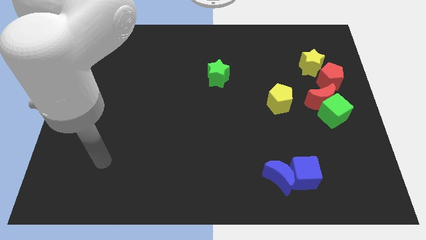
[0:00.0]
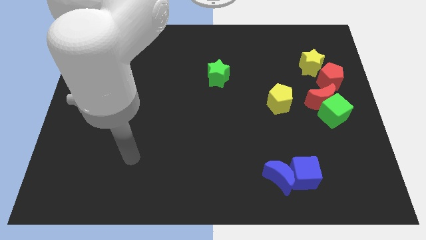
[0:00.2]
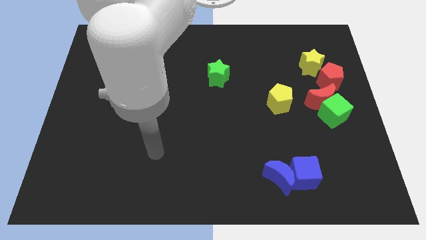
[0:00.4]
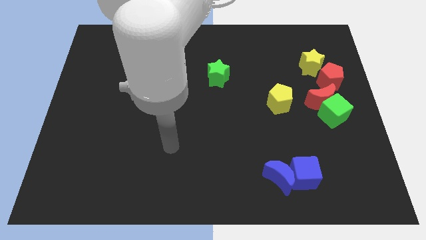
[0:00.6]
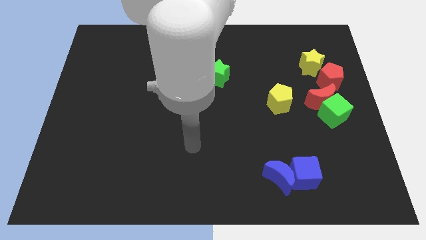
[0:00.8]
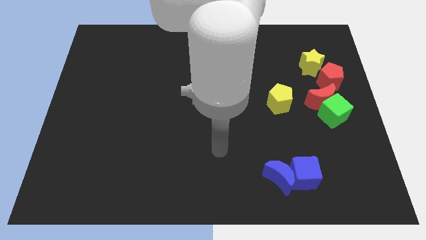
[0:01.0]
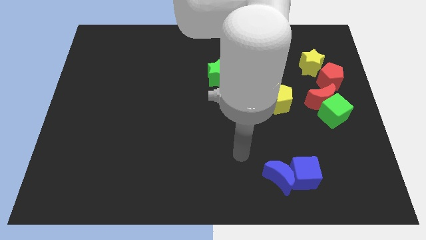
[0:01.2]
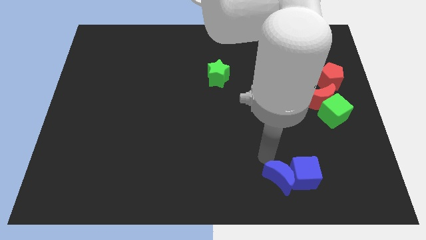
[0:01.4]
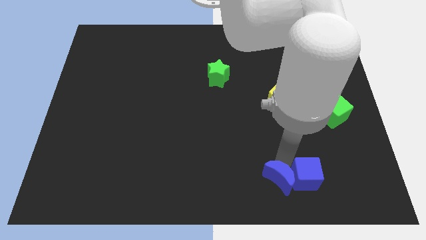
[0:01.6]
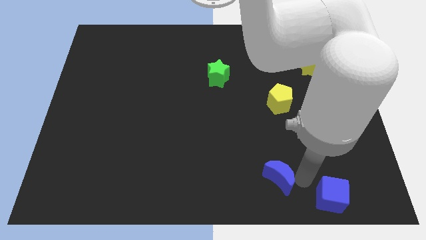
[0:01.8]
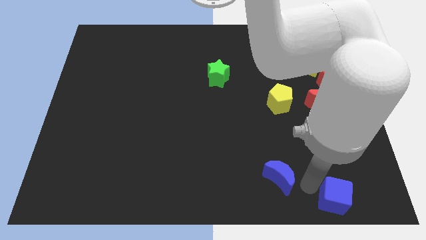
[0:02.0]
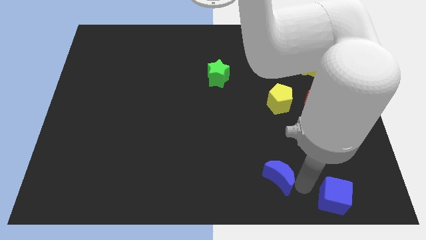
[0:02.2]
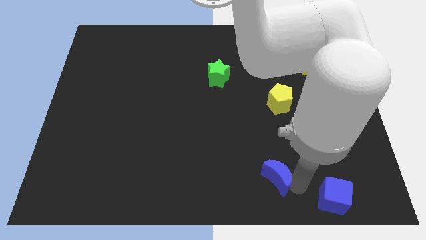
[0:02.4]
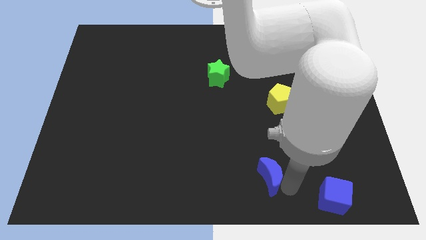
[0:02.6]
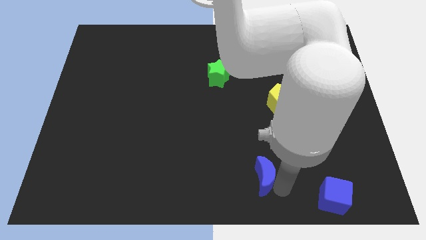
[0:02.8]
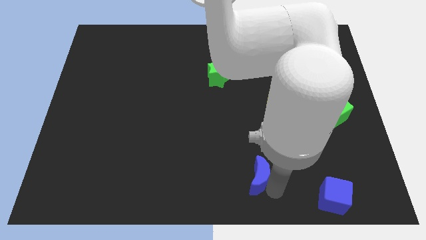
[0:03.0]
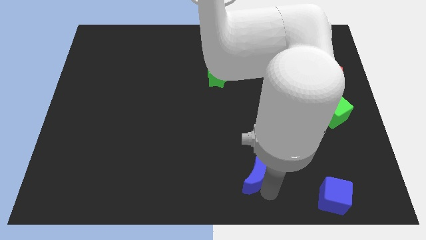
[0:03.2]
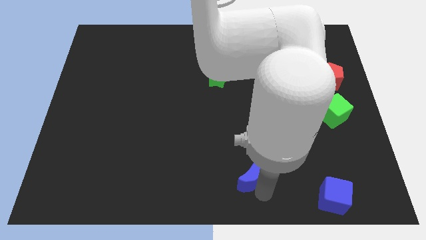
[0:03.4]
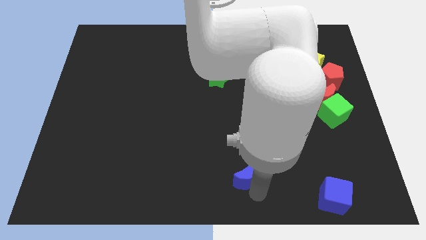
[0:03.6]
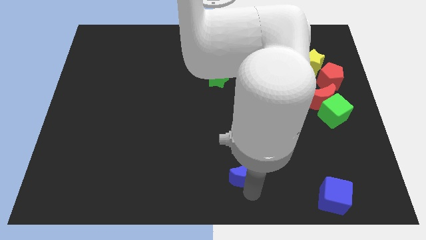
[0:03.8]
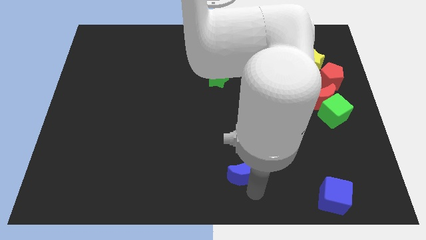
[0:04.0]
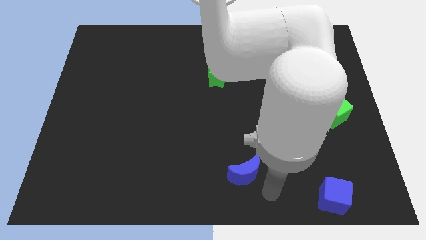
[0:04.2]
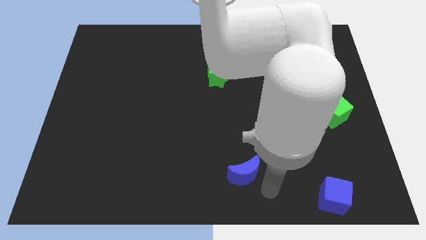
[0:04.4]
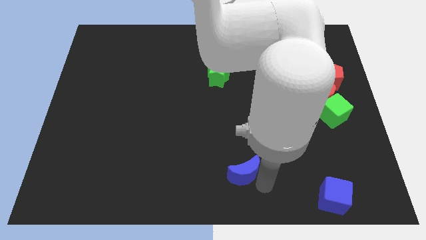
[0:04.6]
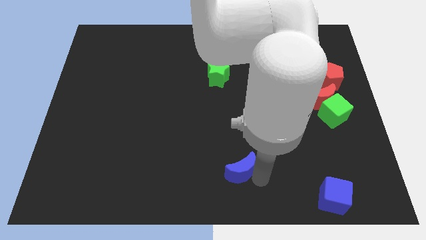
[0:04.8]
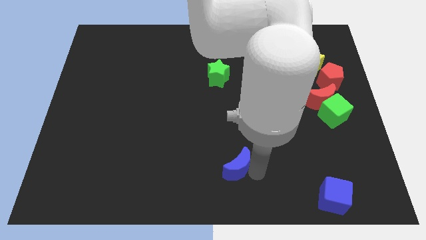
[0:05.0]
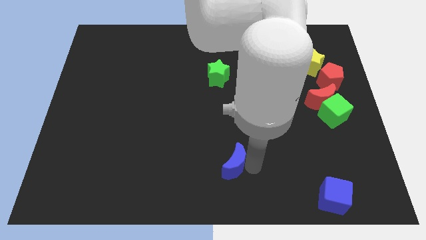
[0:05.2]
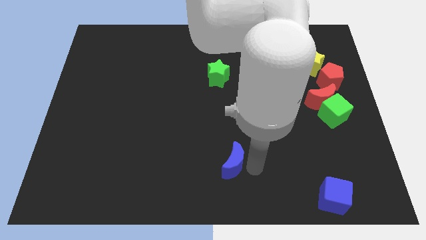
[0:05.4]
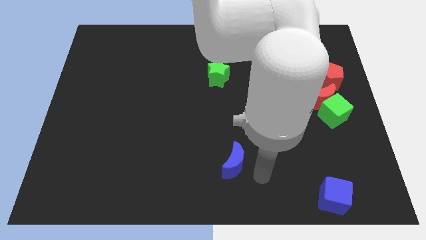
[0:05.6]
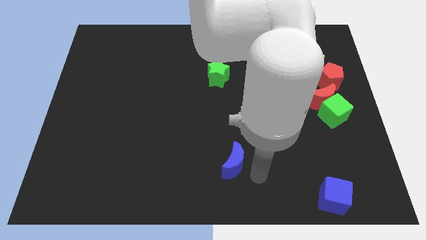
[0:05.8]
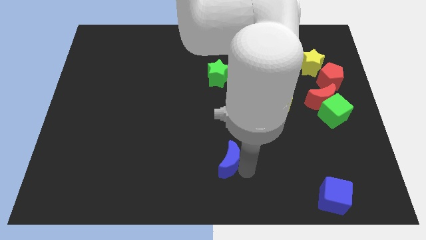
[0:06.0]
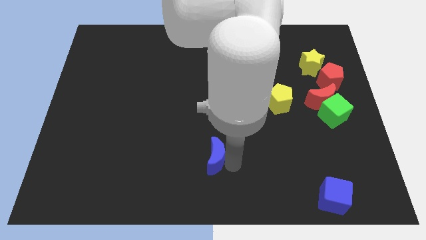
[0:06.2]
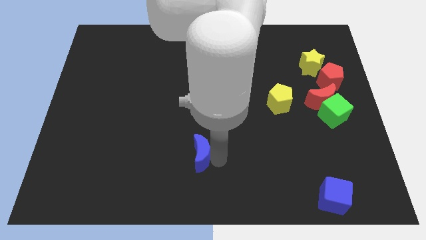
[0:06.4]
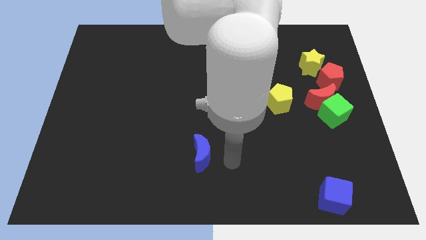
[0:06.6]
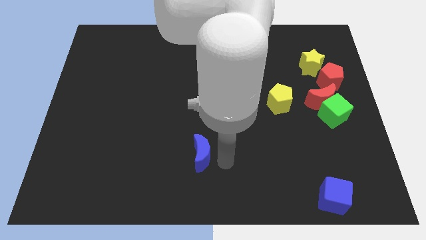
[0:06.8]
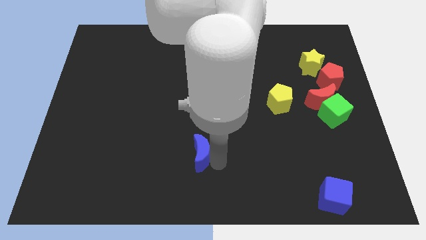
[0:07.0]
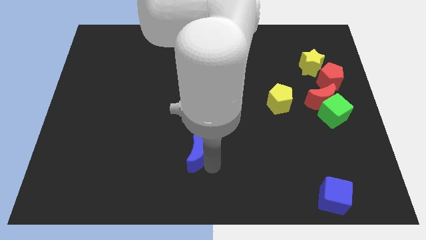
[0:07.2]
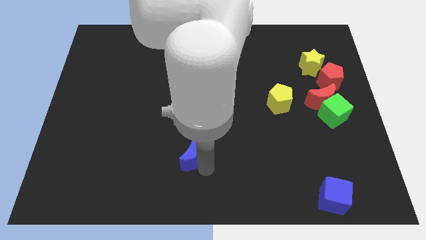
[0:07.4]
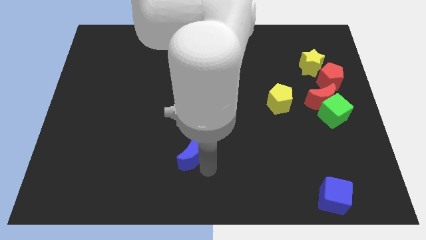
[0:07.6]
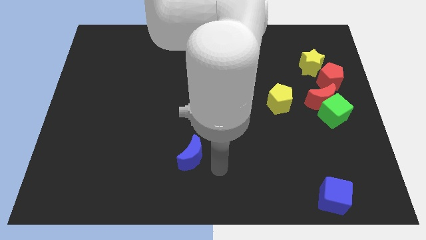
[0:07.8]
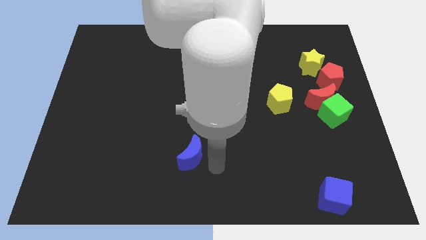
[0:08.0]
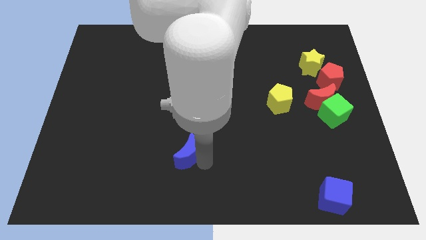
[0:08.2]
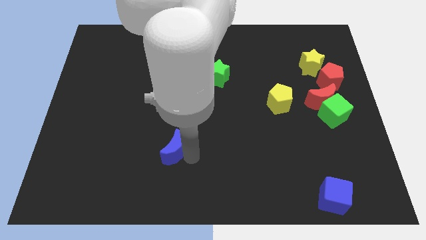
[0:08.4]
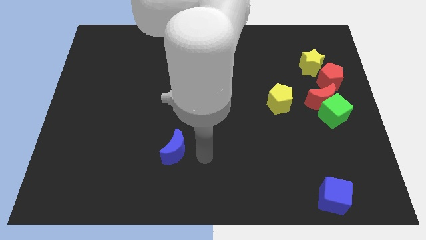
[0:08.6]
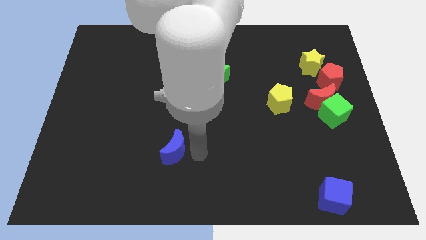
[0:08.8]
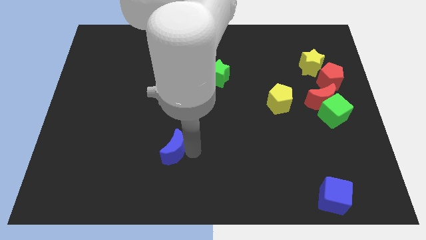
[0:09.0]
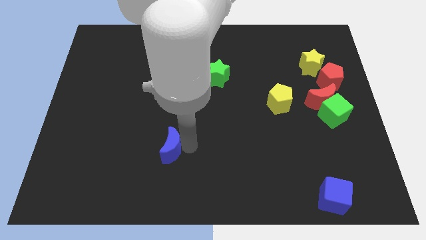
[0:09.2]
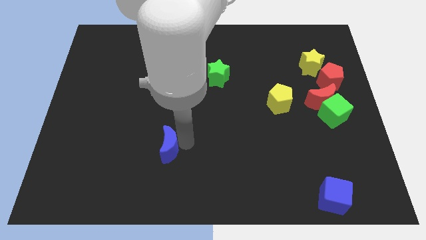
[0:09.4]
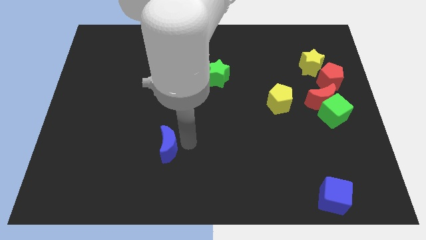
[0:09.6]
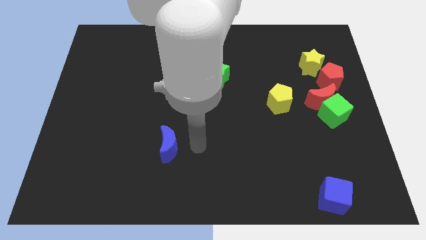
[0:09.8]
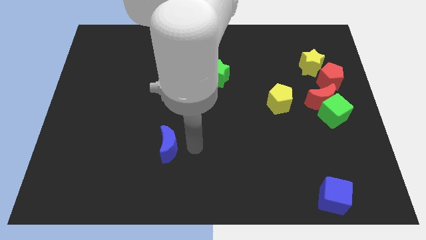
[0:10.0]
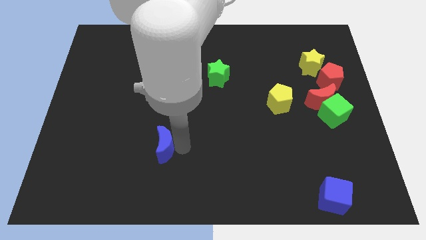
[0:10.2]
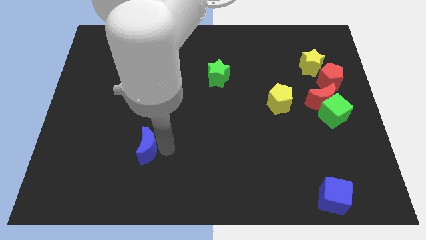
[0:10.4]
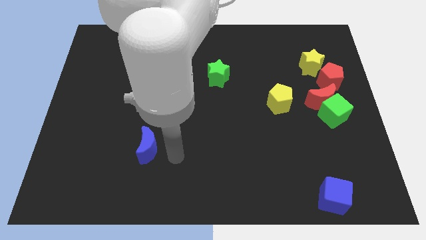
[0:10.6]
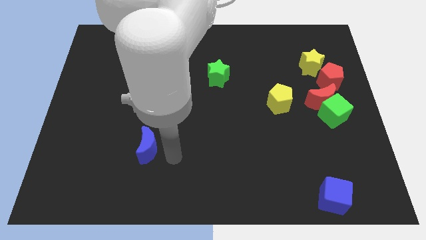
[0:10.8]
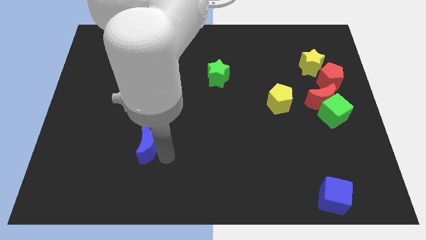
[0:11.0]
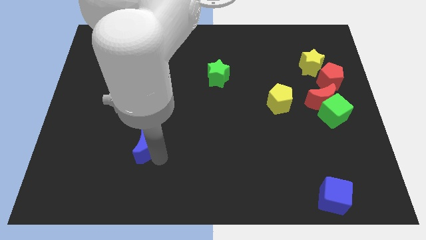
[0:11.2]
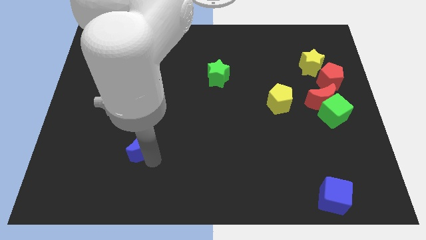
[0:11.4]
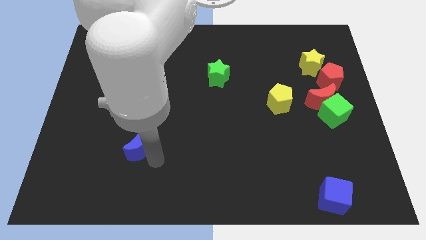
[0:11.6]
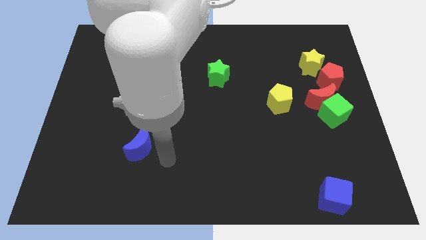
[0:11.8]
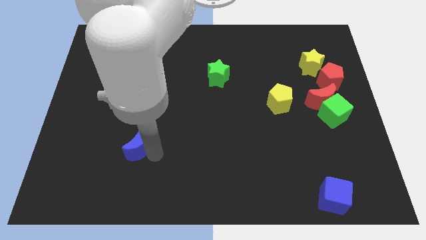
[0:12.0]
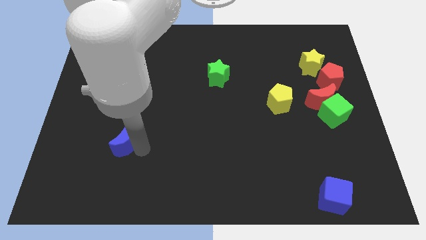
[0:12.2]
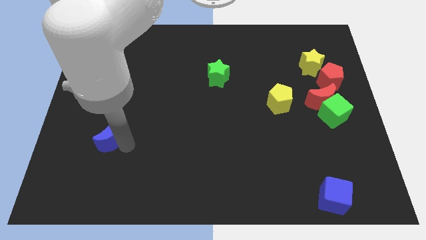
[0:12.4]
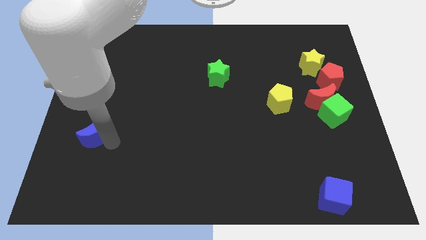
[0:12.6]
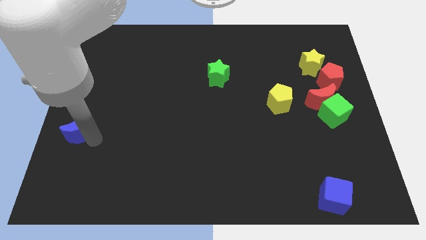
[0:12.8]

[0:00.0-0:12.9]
put the blue moon to the left side

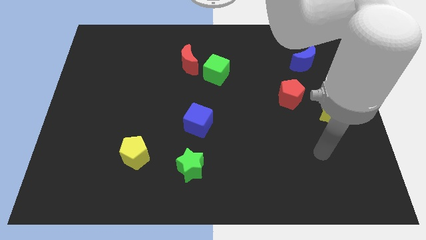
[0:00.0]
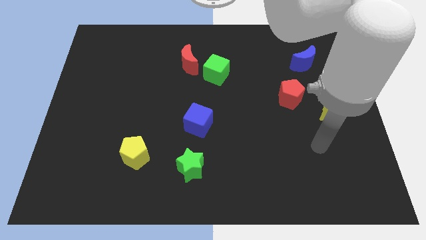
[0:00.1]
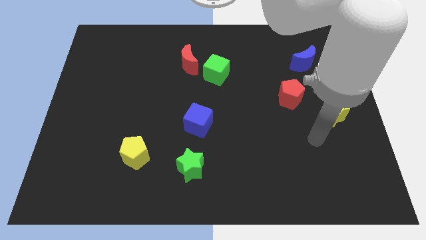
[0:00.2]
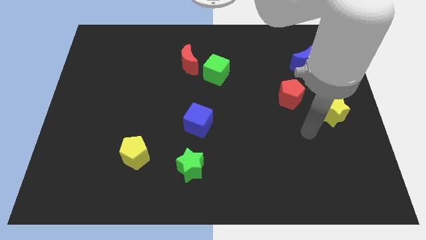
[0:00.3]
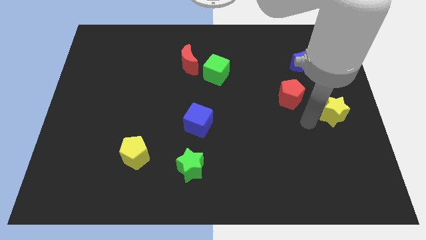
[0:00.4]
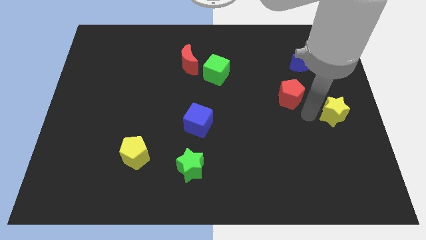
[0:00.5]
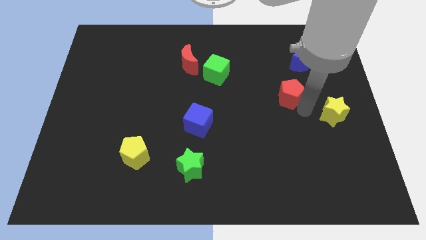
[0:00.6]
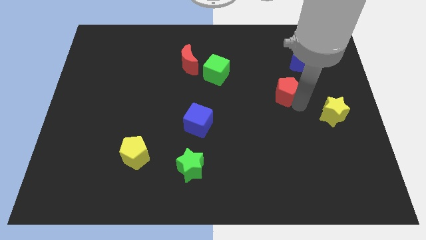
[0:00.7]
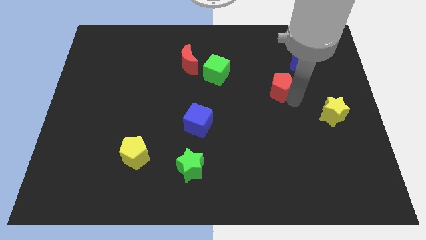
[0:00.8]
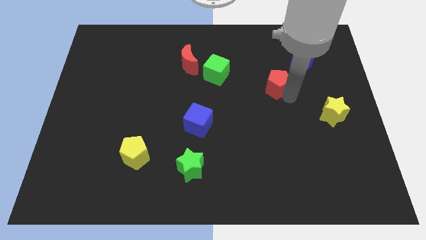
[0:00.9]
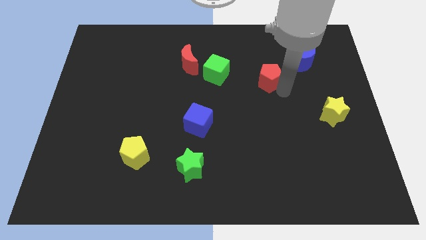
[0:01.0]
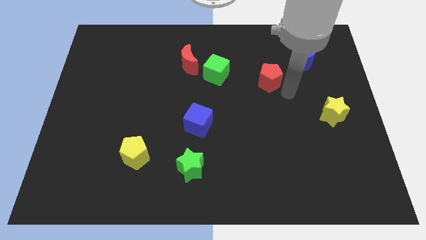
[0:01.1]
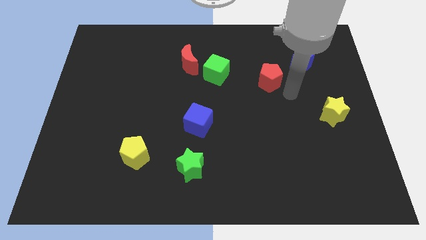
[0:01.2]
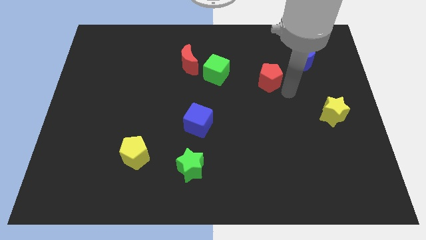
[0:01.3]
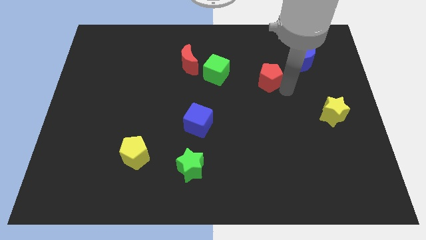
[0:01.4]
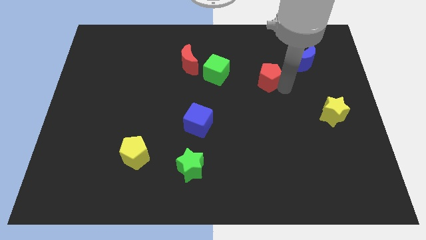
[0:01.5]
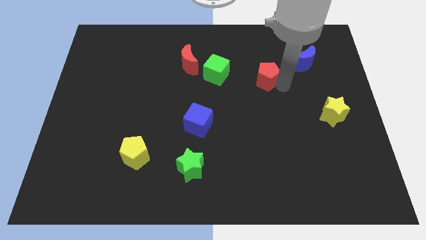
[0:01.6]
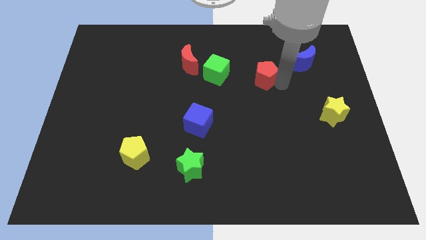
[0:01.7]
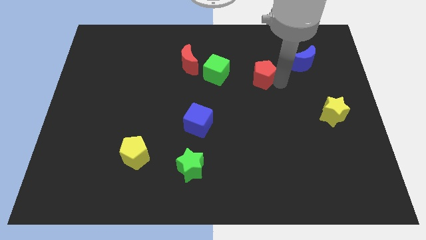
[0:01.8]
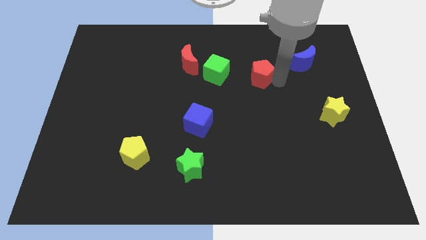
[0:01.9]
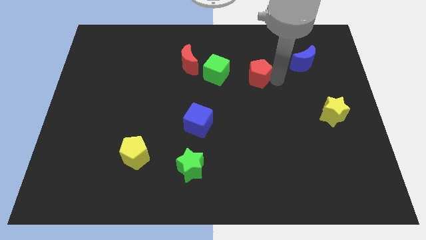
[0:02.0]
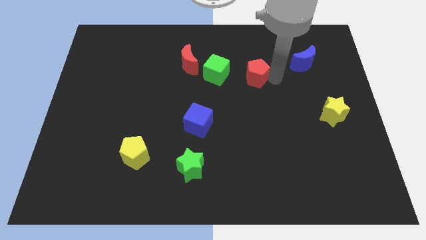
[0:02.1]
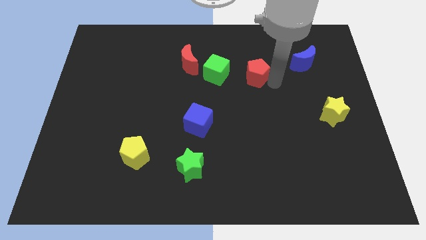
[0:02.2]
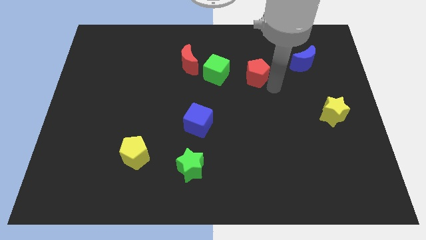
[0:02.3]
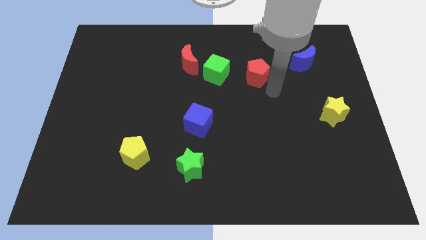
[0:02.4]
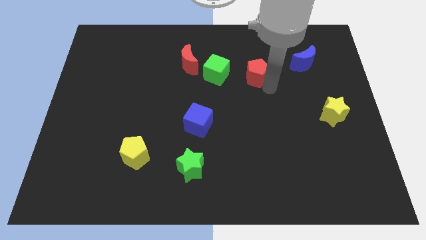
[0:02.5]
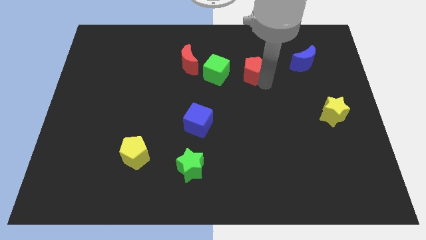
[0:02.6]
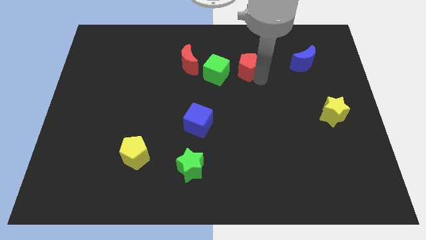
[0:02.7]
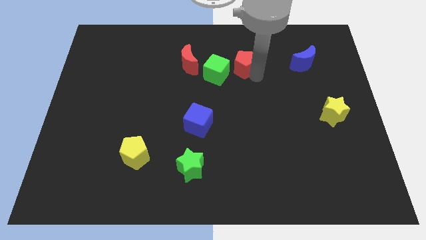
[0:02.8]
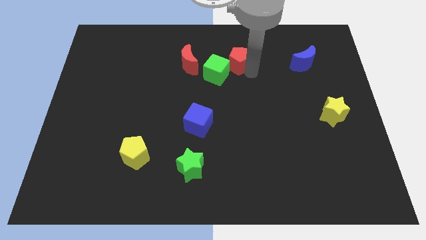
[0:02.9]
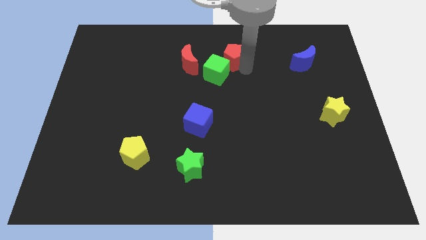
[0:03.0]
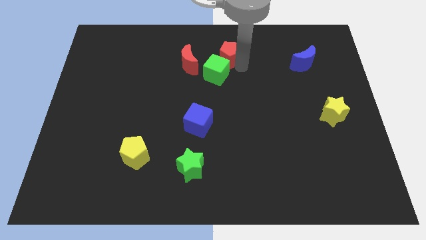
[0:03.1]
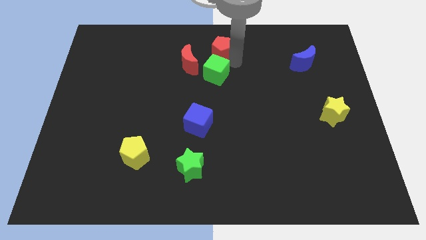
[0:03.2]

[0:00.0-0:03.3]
push the red pentagon to the towards your base
